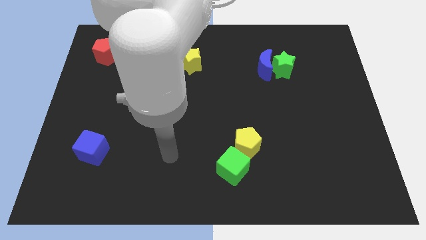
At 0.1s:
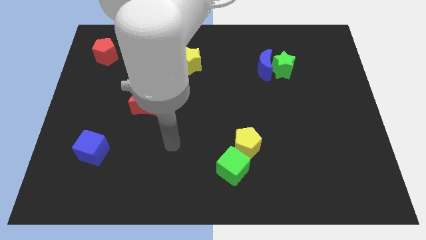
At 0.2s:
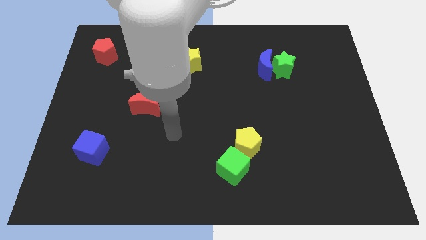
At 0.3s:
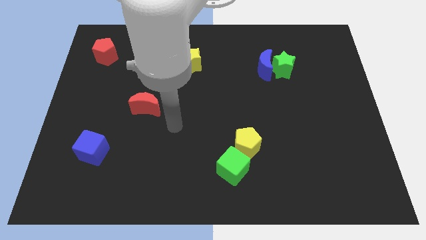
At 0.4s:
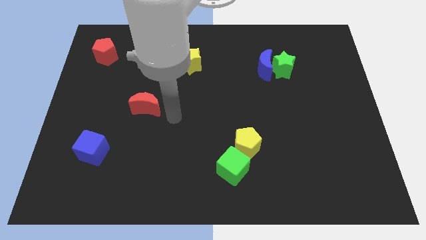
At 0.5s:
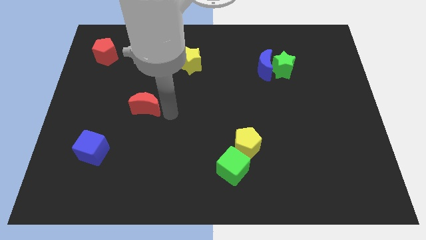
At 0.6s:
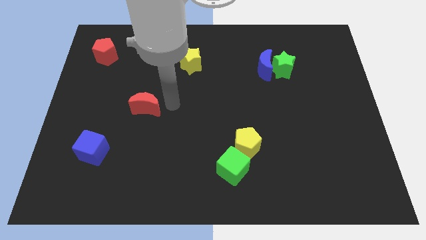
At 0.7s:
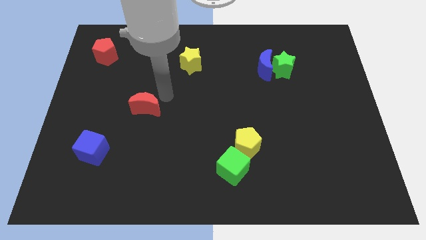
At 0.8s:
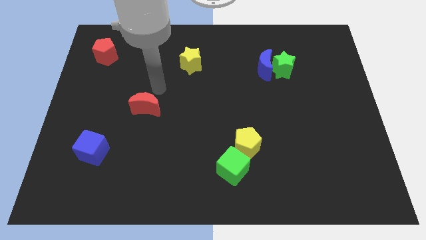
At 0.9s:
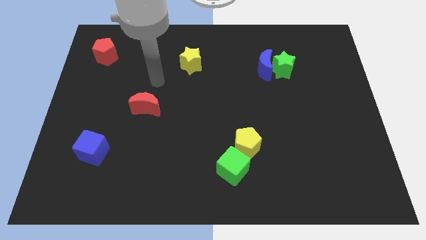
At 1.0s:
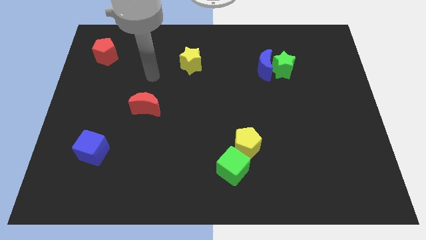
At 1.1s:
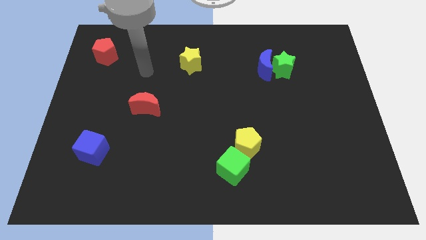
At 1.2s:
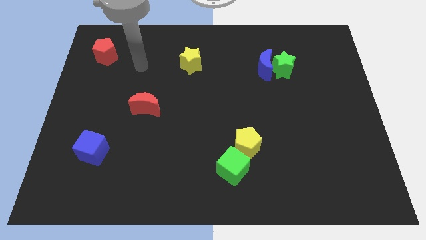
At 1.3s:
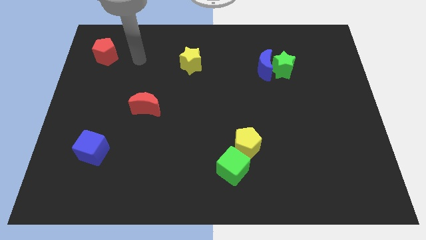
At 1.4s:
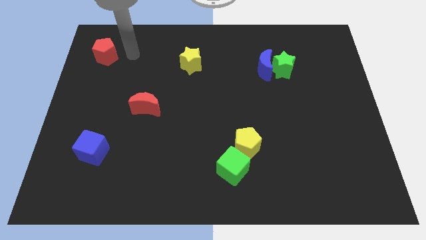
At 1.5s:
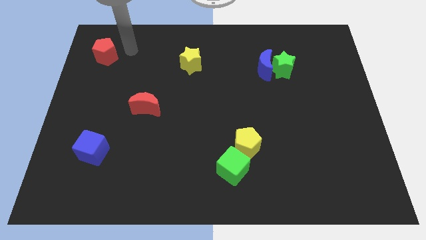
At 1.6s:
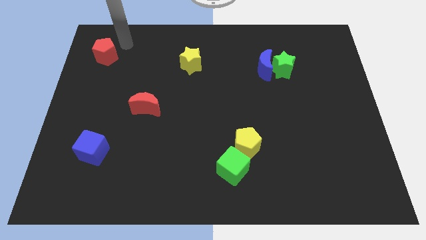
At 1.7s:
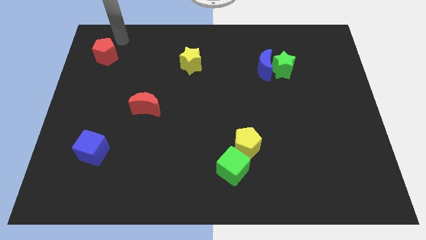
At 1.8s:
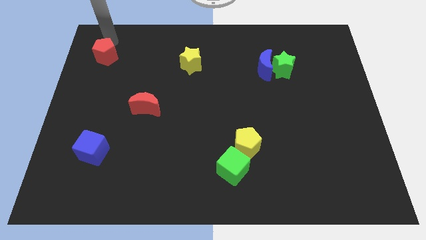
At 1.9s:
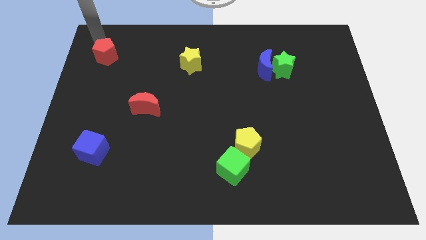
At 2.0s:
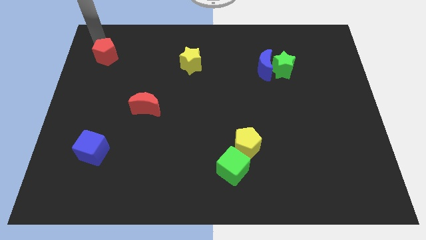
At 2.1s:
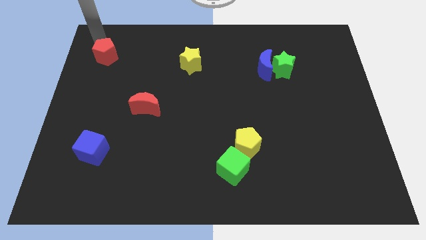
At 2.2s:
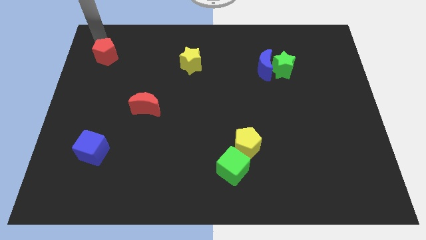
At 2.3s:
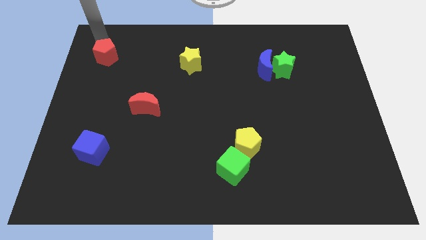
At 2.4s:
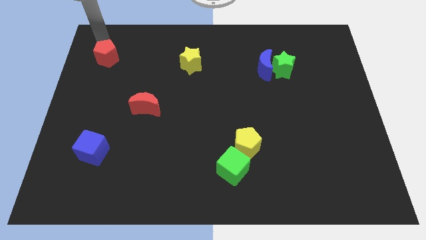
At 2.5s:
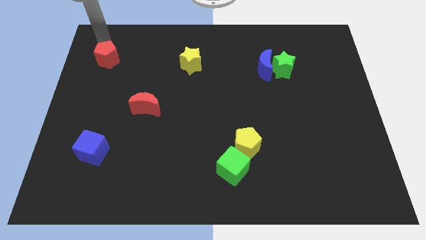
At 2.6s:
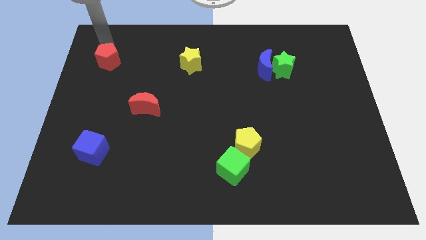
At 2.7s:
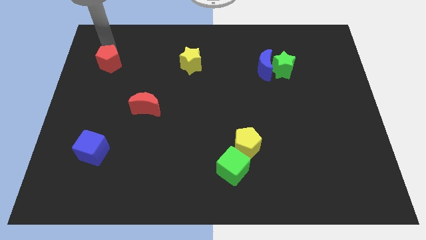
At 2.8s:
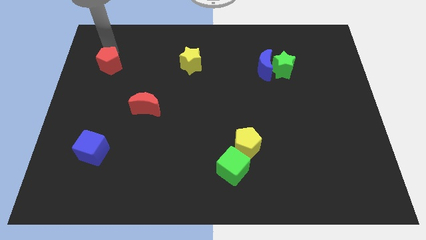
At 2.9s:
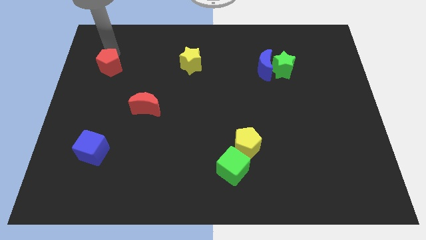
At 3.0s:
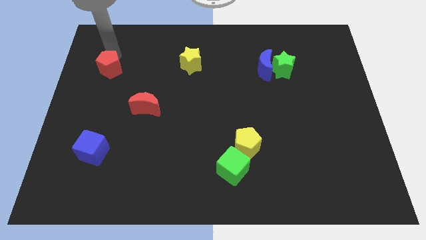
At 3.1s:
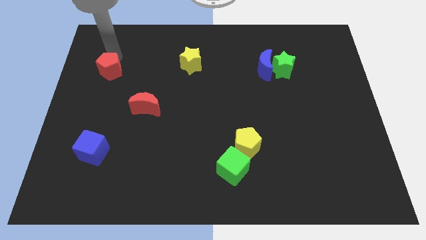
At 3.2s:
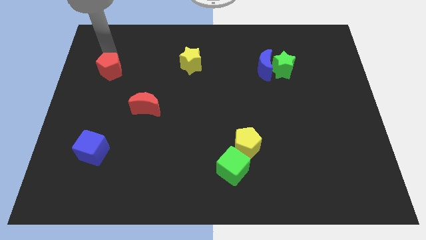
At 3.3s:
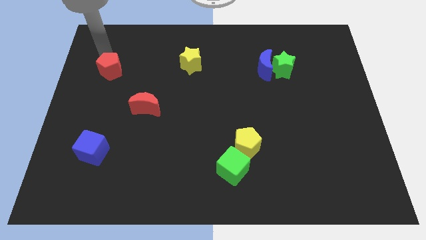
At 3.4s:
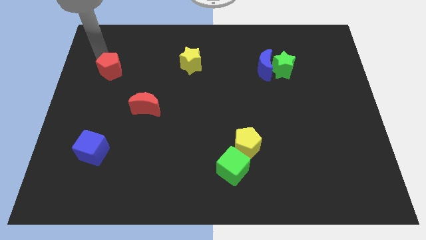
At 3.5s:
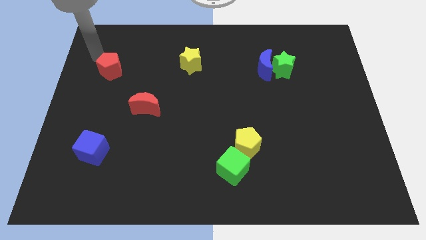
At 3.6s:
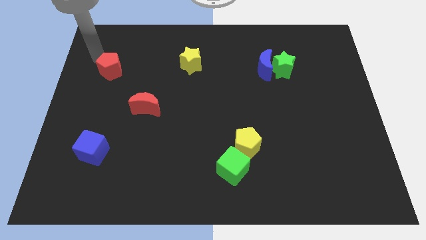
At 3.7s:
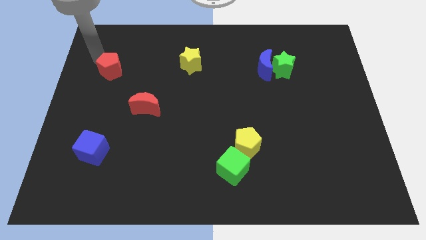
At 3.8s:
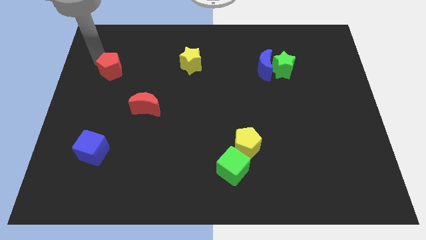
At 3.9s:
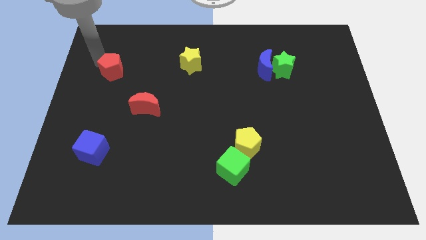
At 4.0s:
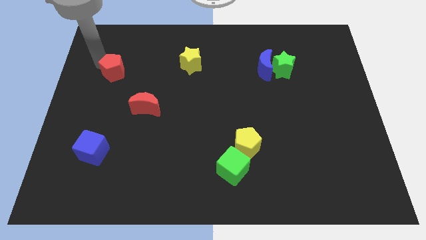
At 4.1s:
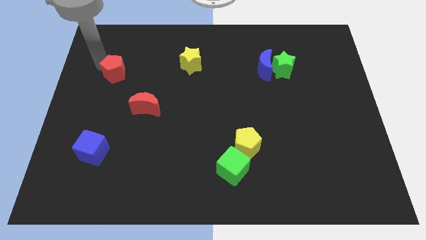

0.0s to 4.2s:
slightly push the red pentagon downwards and then right

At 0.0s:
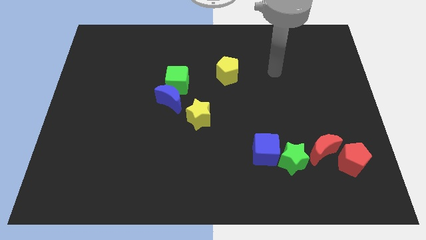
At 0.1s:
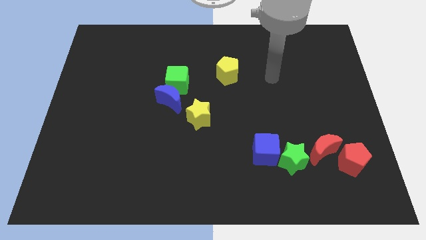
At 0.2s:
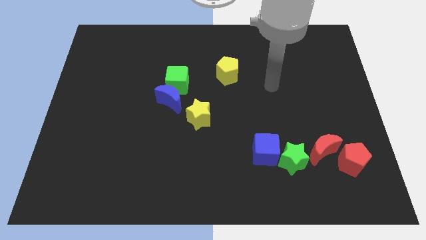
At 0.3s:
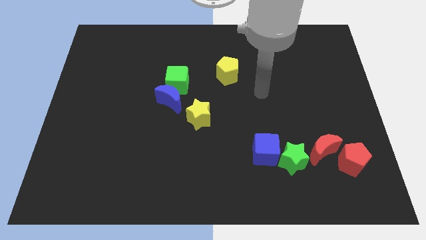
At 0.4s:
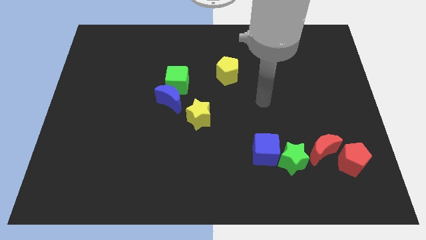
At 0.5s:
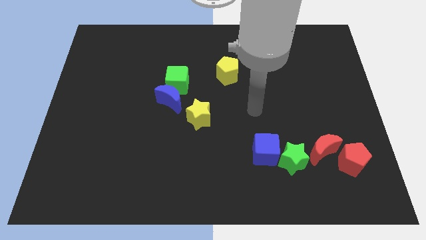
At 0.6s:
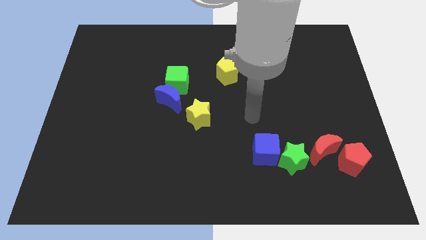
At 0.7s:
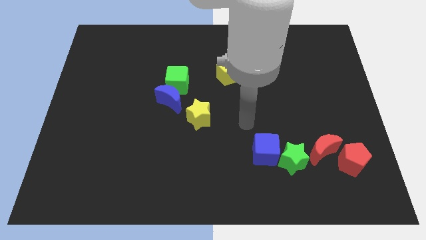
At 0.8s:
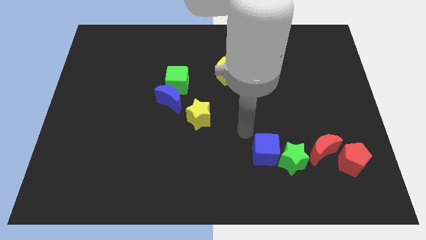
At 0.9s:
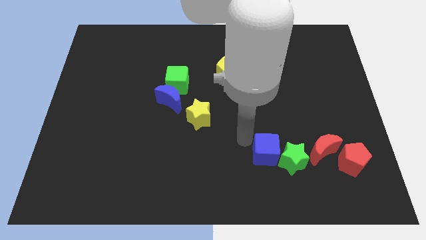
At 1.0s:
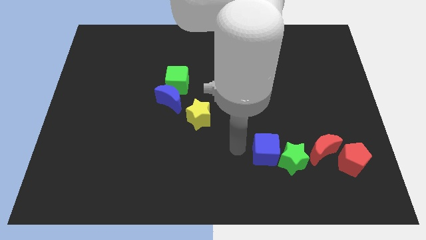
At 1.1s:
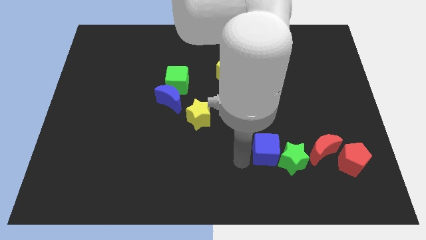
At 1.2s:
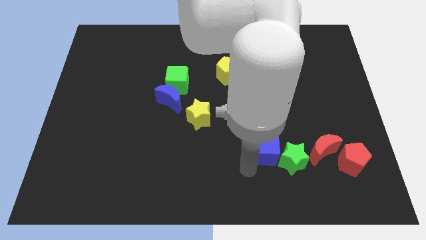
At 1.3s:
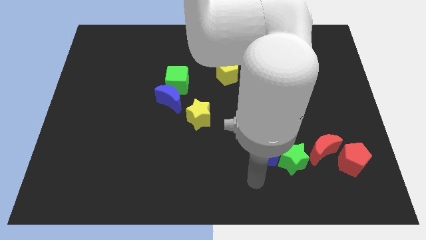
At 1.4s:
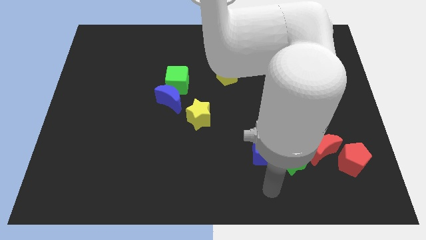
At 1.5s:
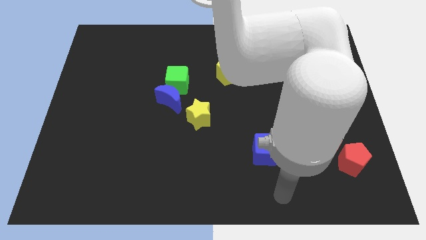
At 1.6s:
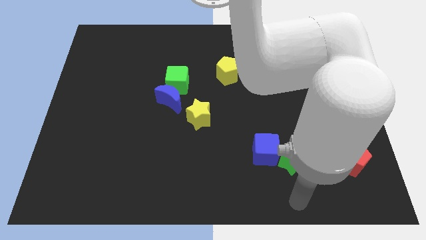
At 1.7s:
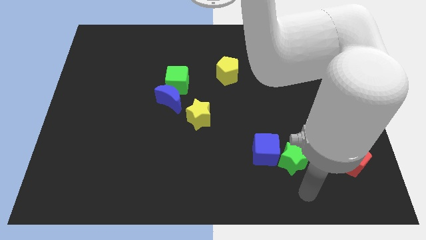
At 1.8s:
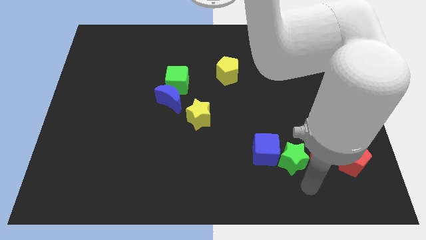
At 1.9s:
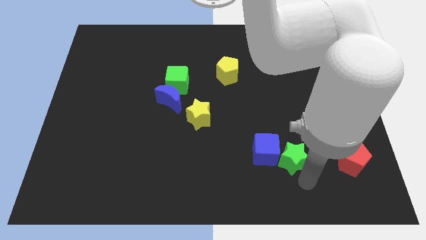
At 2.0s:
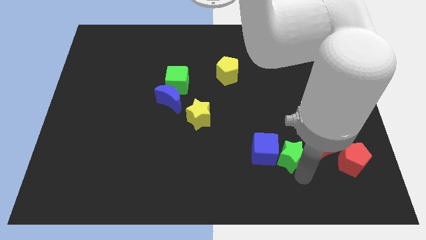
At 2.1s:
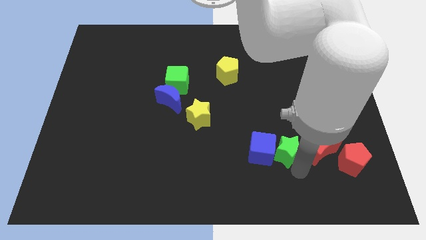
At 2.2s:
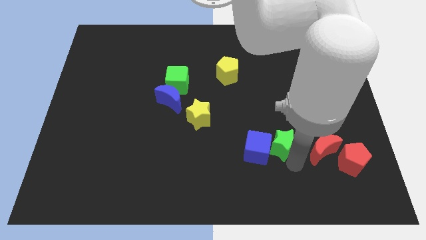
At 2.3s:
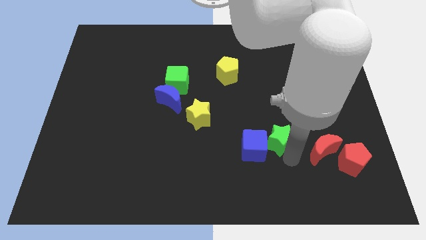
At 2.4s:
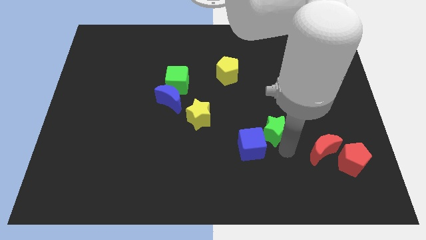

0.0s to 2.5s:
slide the green star a little up and then to the left

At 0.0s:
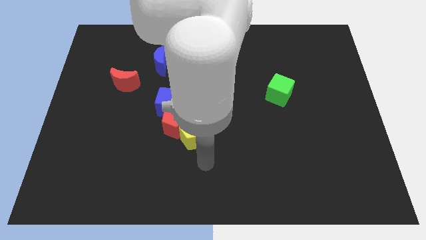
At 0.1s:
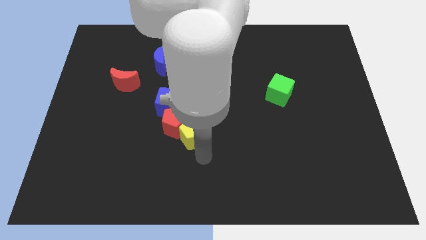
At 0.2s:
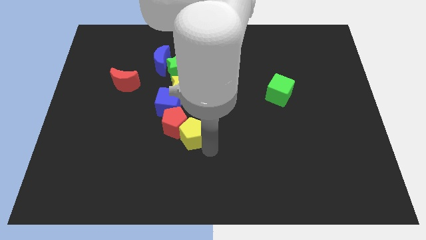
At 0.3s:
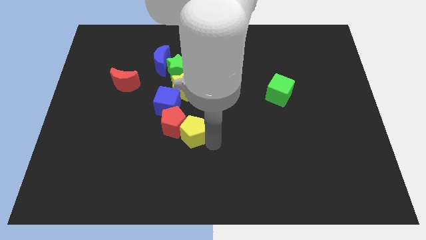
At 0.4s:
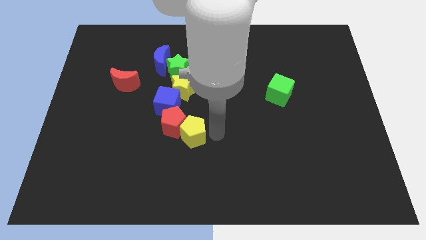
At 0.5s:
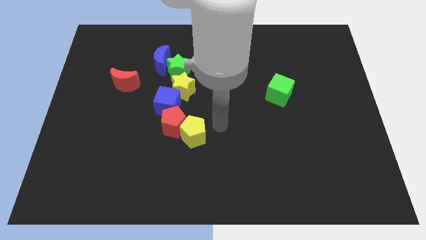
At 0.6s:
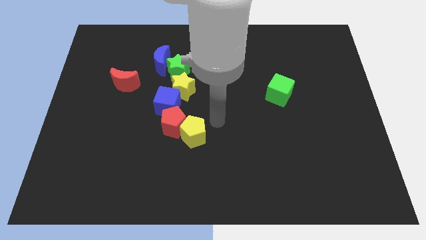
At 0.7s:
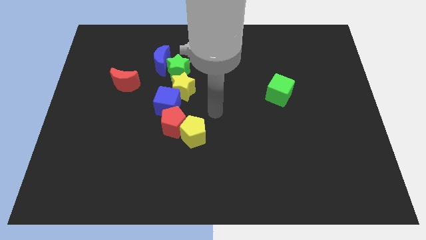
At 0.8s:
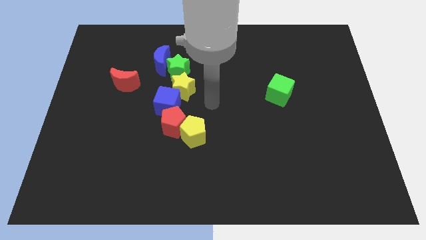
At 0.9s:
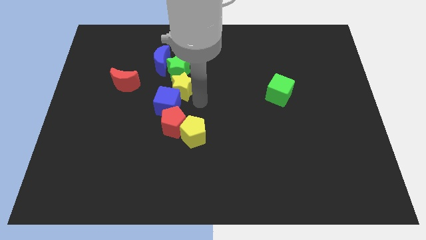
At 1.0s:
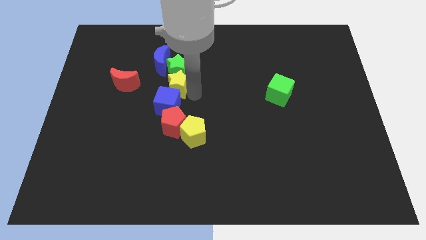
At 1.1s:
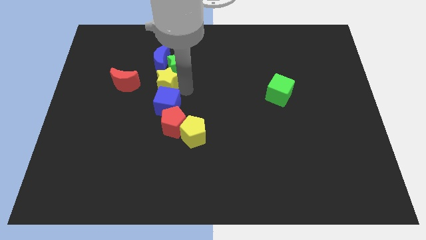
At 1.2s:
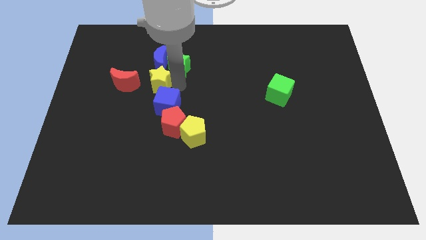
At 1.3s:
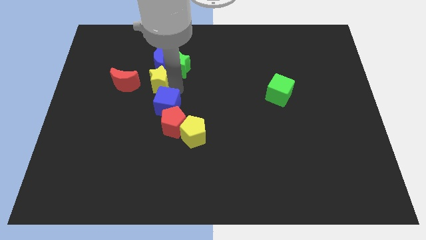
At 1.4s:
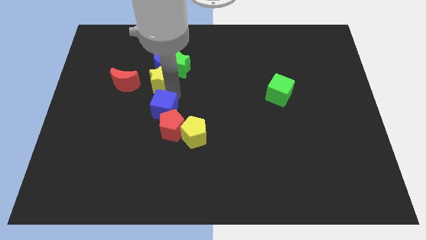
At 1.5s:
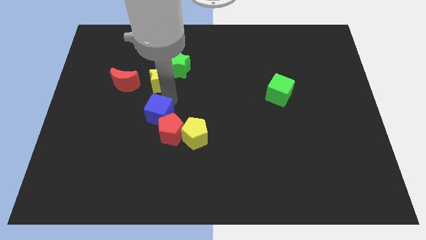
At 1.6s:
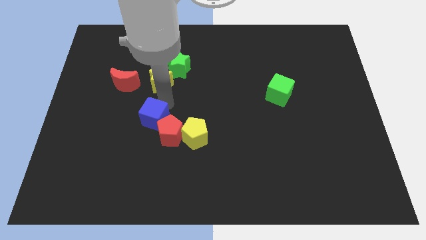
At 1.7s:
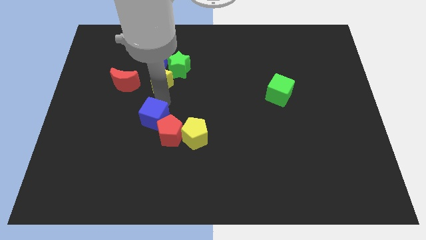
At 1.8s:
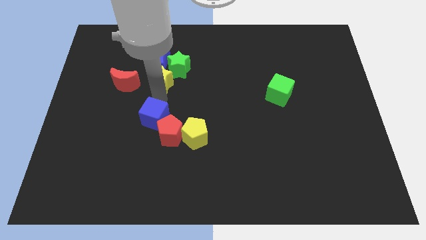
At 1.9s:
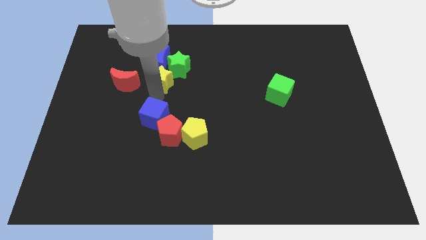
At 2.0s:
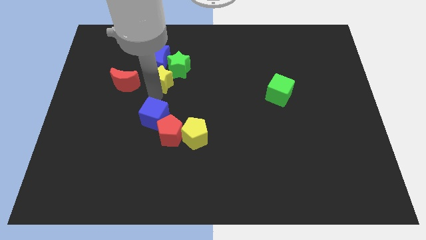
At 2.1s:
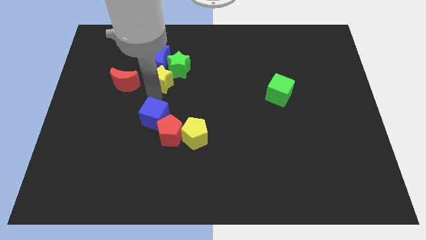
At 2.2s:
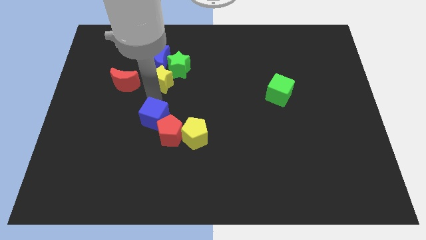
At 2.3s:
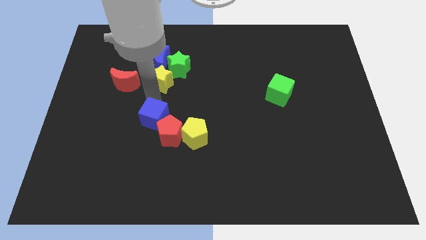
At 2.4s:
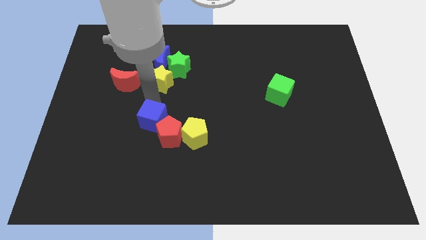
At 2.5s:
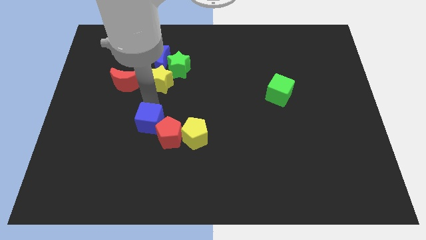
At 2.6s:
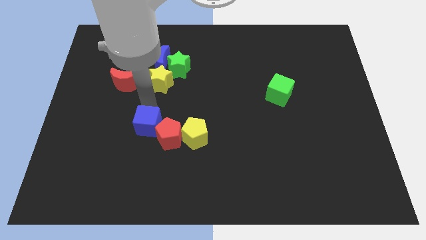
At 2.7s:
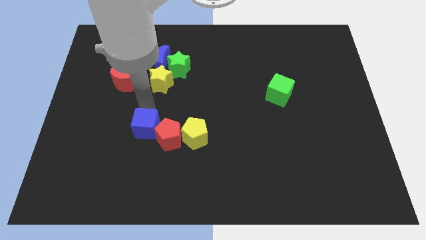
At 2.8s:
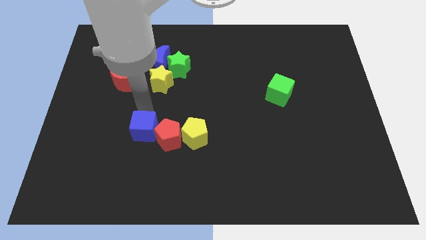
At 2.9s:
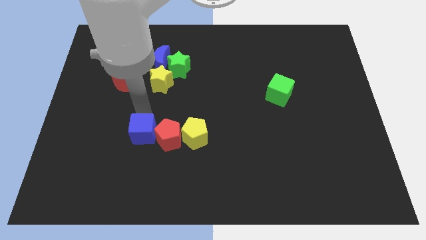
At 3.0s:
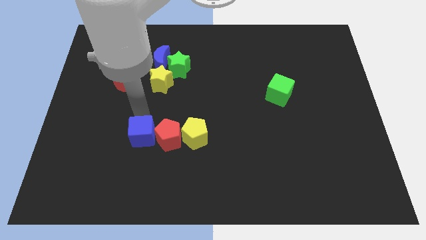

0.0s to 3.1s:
move the blue cube down a bit
